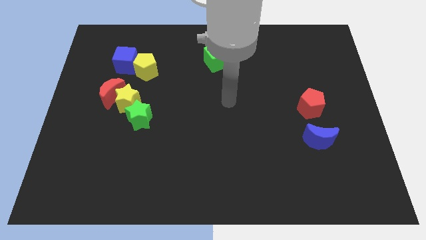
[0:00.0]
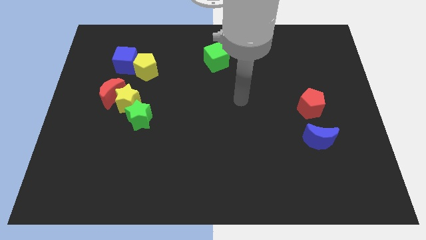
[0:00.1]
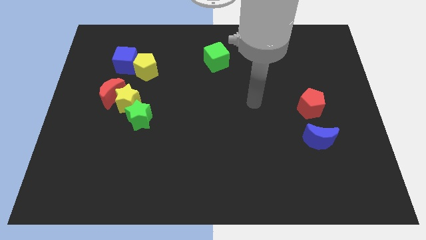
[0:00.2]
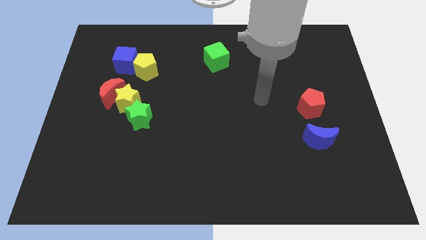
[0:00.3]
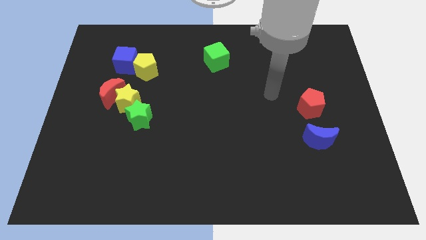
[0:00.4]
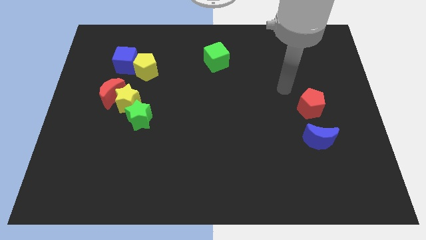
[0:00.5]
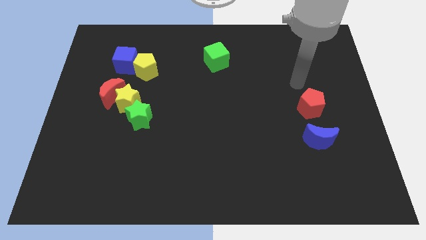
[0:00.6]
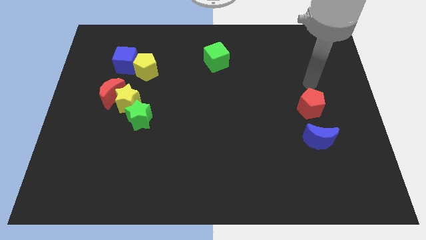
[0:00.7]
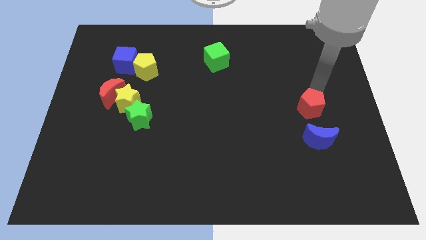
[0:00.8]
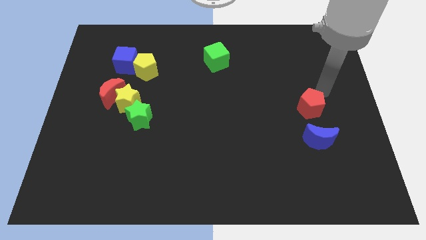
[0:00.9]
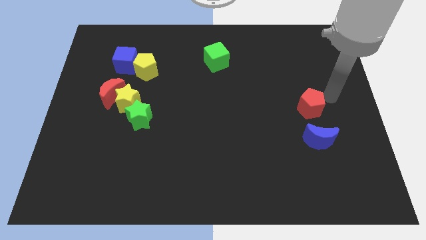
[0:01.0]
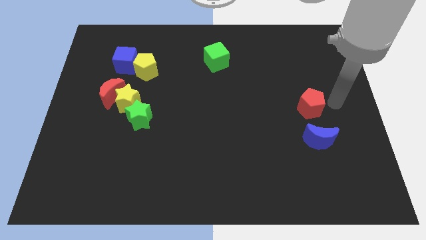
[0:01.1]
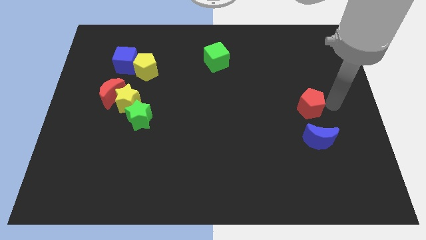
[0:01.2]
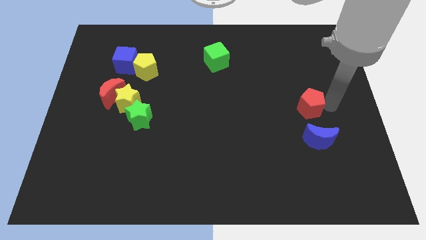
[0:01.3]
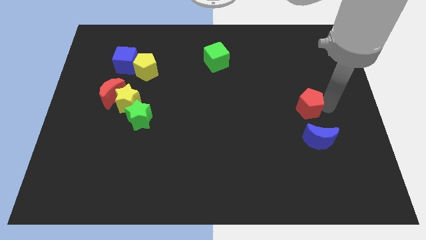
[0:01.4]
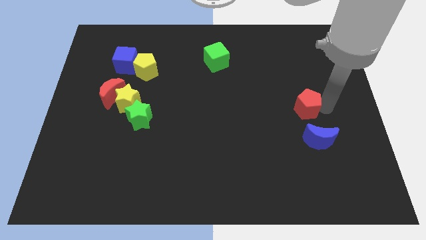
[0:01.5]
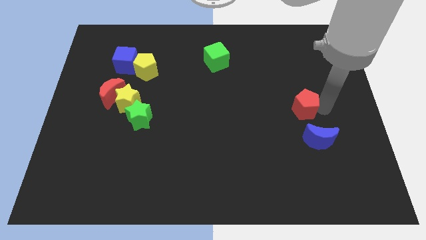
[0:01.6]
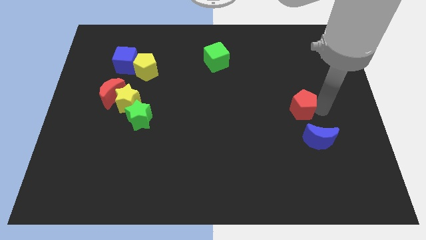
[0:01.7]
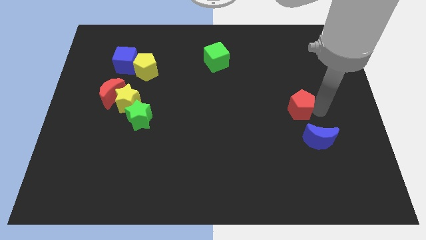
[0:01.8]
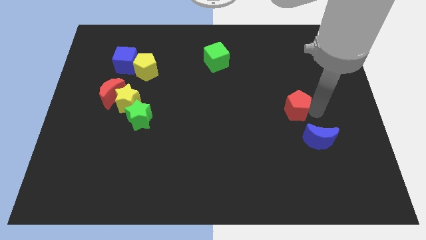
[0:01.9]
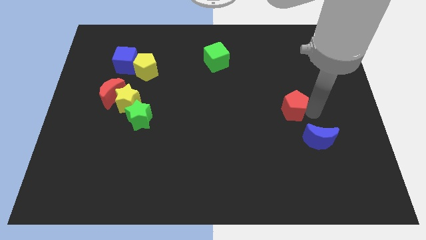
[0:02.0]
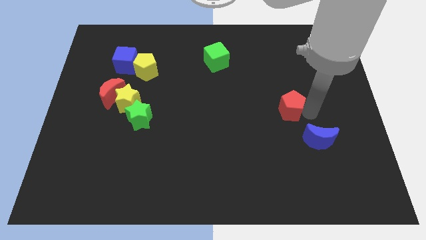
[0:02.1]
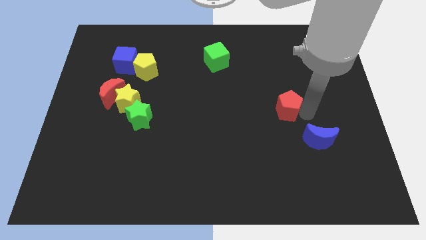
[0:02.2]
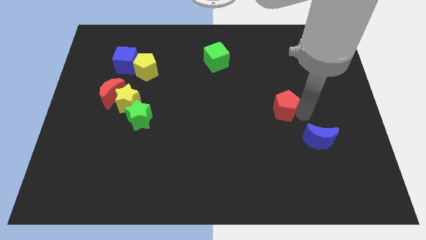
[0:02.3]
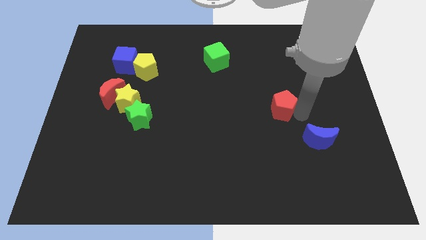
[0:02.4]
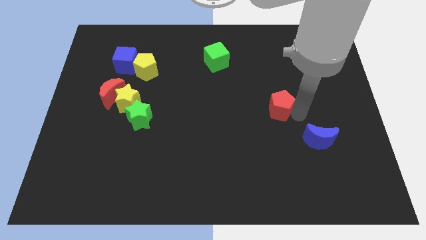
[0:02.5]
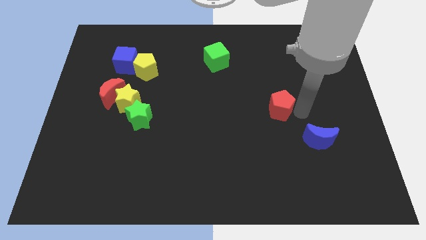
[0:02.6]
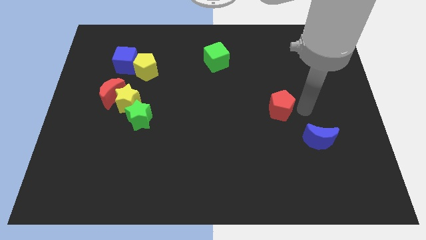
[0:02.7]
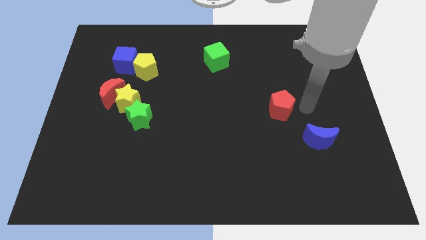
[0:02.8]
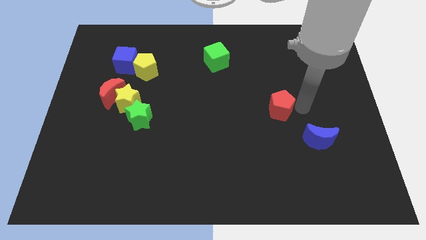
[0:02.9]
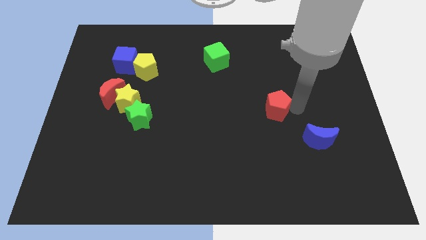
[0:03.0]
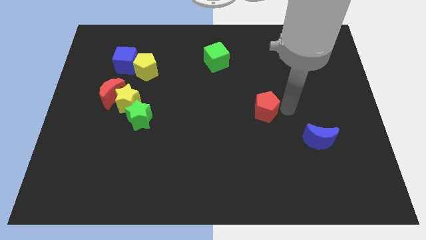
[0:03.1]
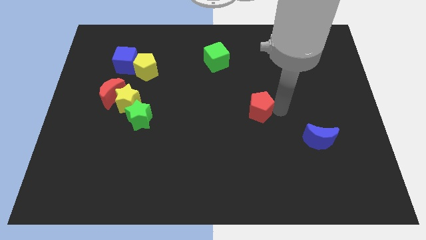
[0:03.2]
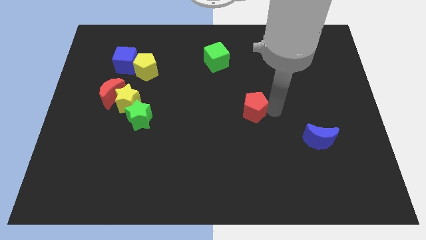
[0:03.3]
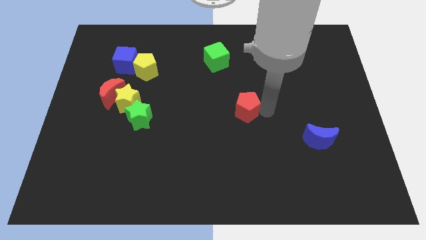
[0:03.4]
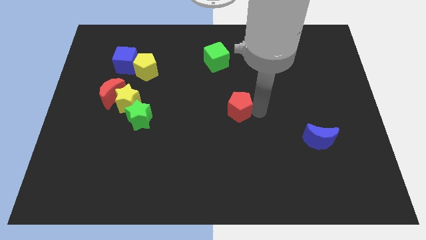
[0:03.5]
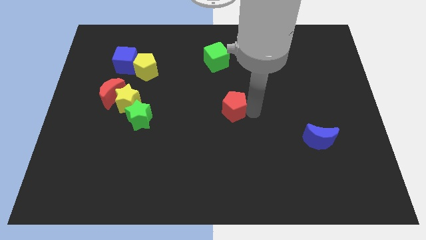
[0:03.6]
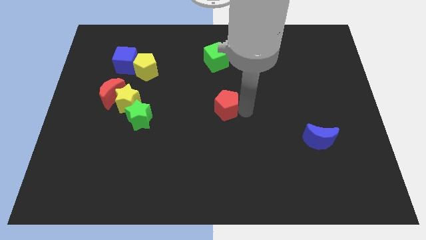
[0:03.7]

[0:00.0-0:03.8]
push the red pentagon left

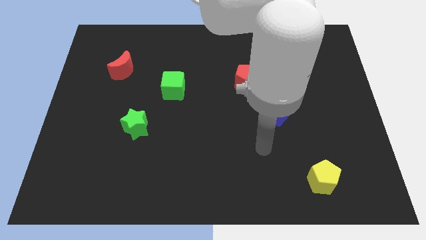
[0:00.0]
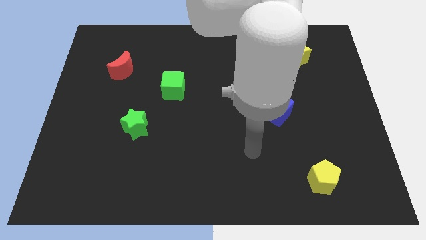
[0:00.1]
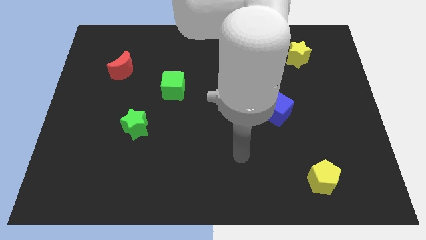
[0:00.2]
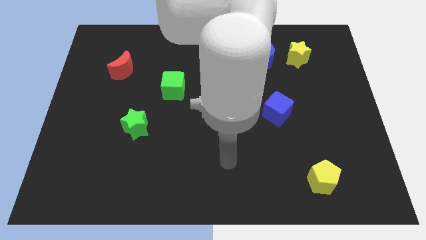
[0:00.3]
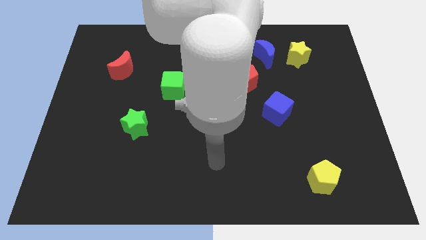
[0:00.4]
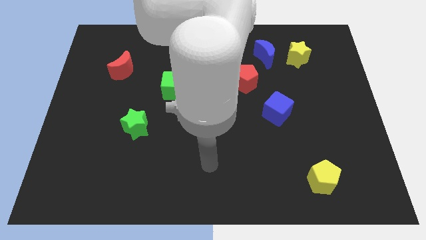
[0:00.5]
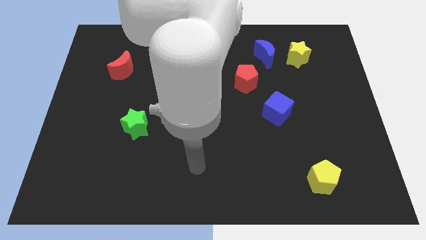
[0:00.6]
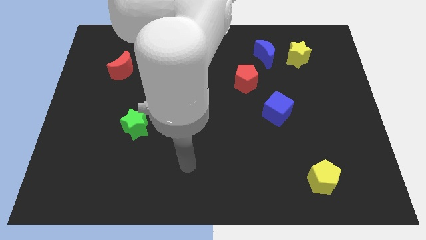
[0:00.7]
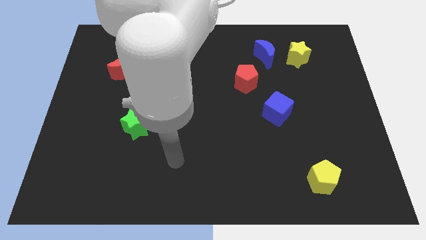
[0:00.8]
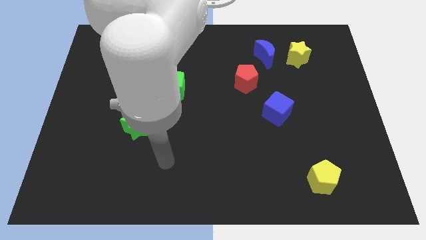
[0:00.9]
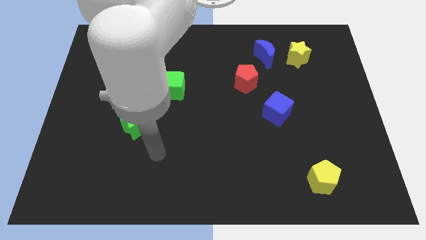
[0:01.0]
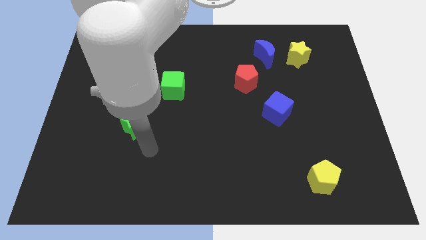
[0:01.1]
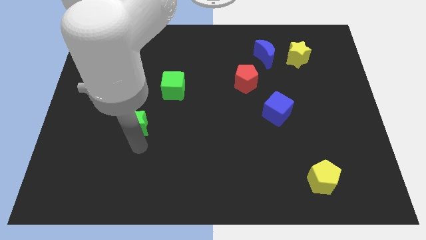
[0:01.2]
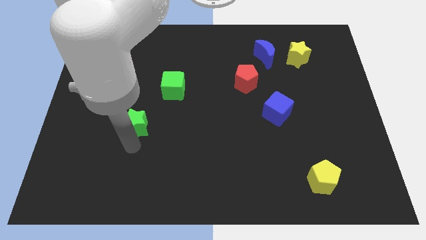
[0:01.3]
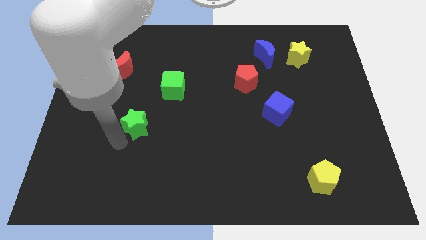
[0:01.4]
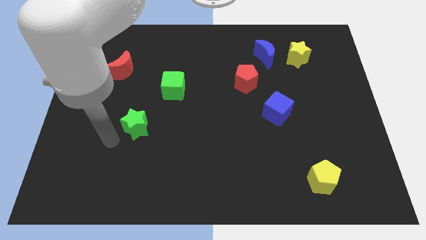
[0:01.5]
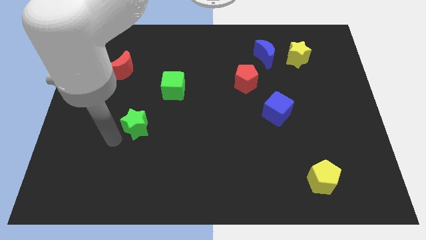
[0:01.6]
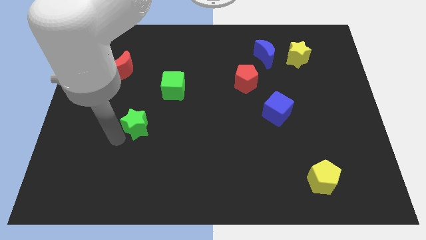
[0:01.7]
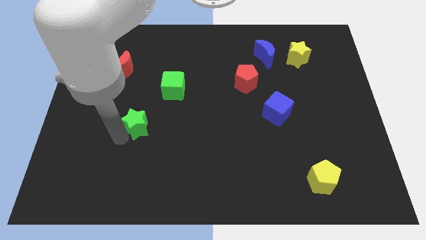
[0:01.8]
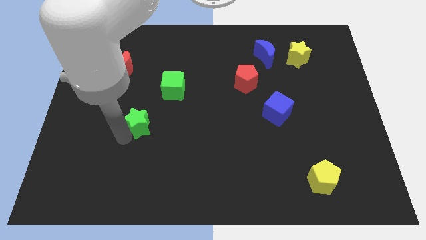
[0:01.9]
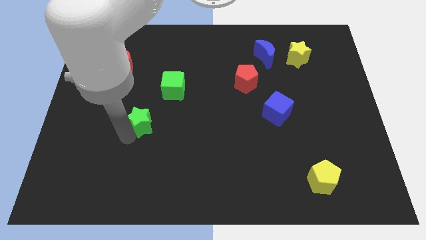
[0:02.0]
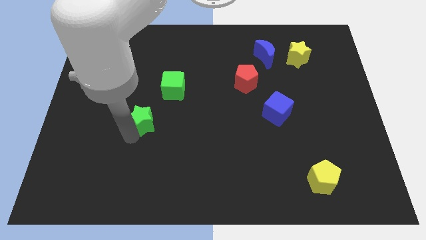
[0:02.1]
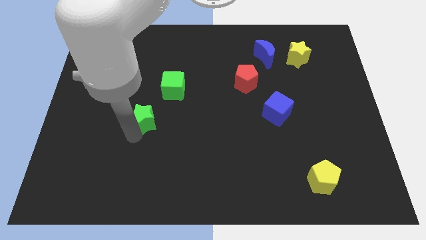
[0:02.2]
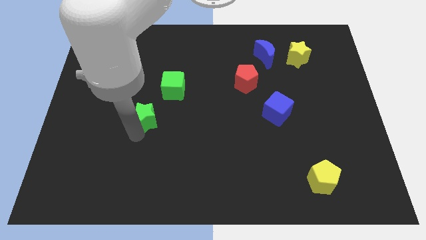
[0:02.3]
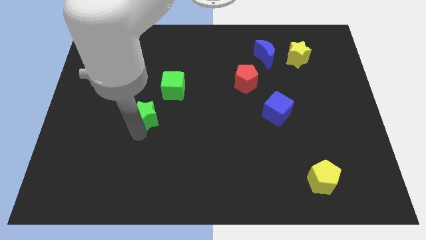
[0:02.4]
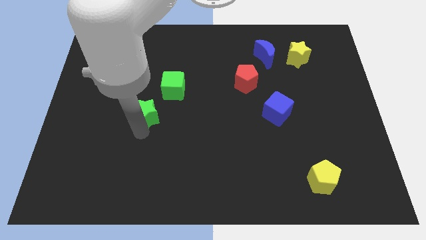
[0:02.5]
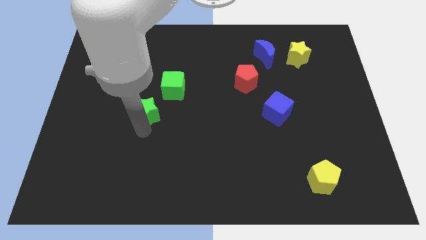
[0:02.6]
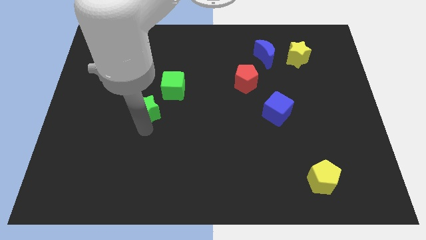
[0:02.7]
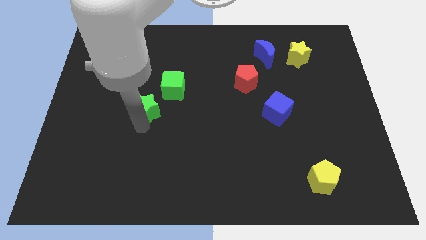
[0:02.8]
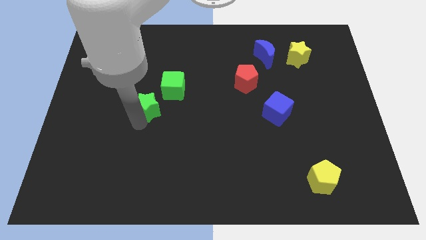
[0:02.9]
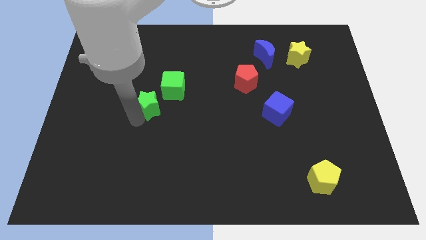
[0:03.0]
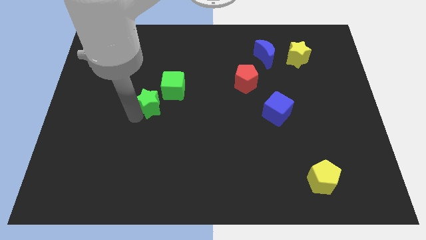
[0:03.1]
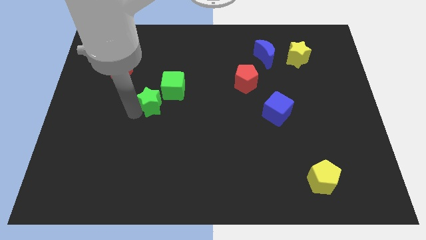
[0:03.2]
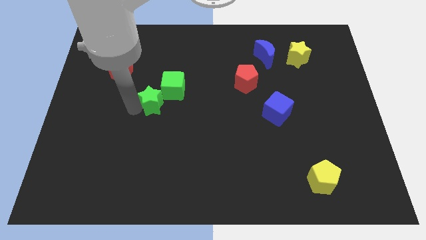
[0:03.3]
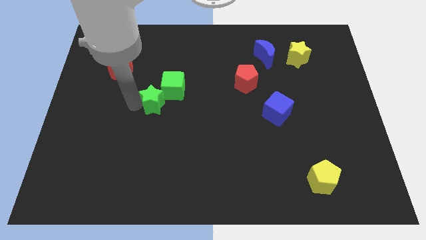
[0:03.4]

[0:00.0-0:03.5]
slightly slide the green star up and to the right diagonally

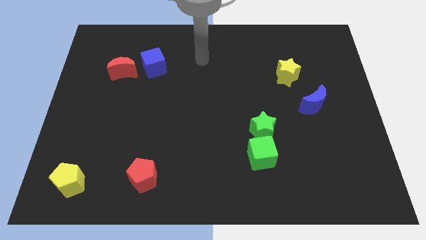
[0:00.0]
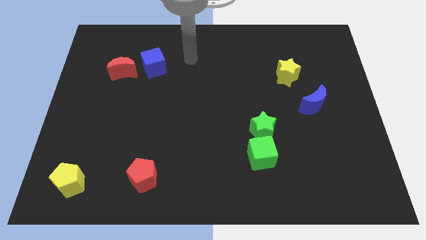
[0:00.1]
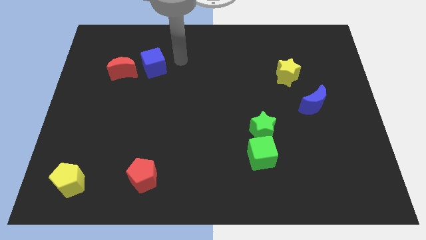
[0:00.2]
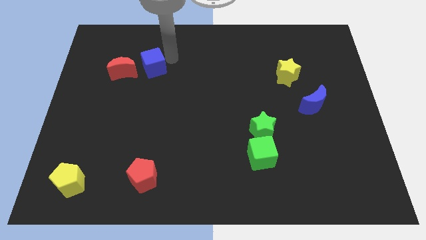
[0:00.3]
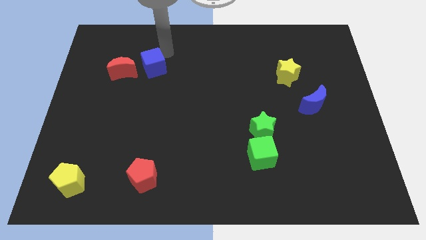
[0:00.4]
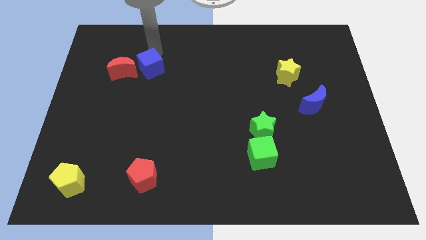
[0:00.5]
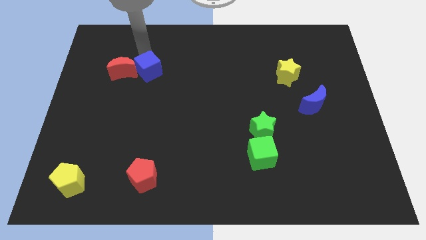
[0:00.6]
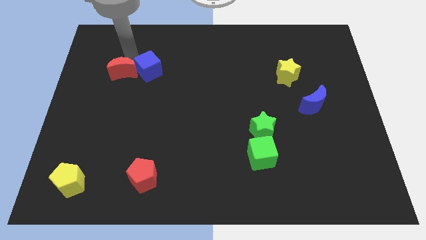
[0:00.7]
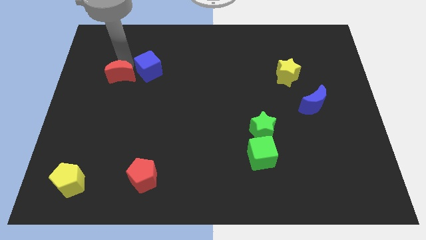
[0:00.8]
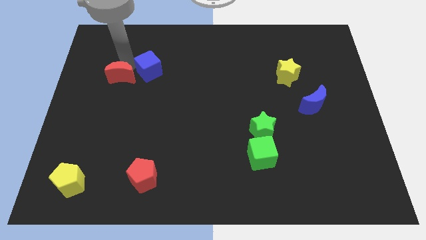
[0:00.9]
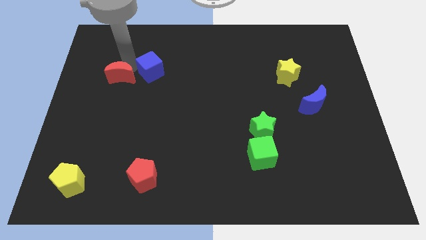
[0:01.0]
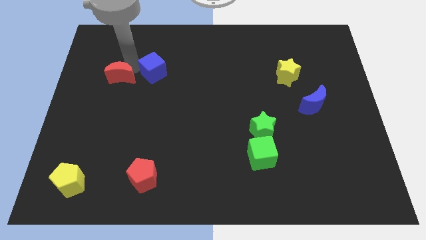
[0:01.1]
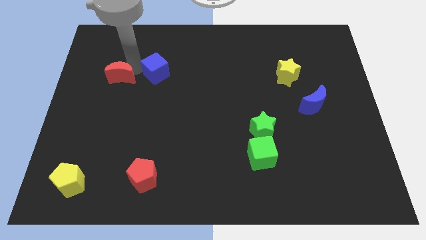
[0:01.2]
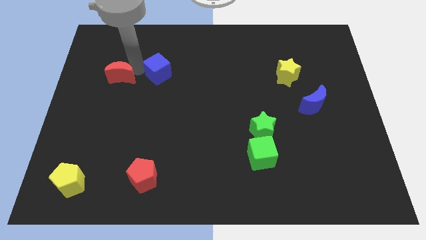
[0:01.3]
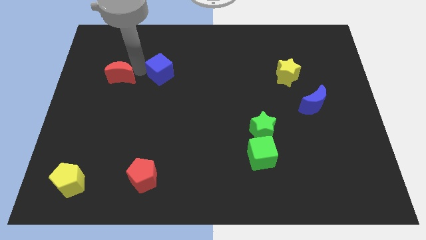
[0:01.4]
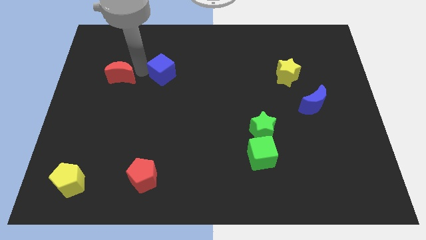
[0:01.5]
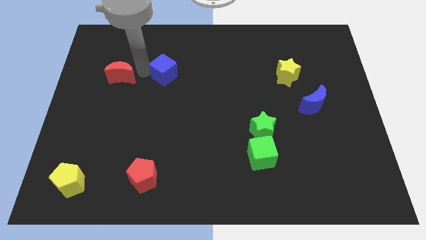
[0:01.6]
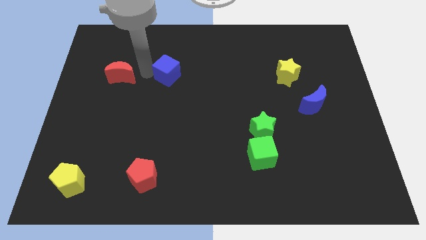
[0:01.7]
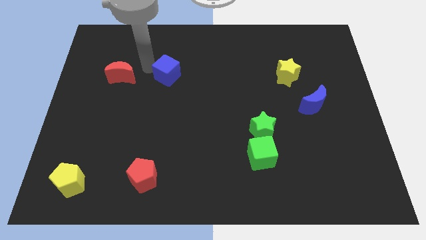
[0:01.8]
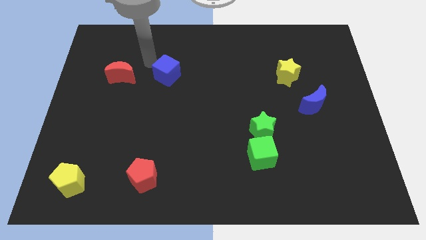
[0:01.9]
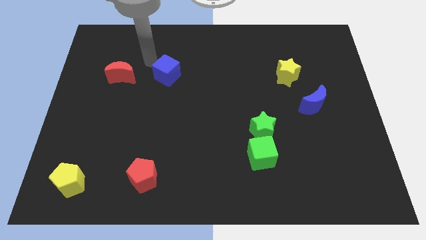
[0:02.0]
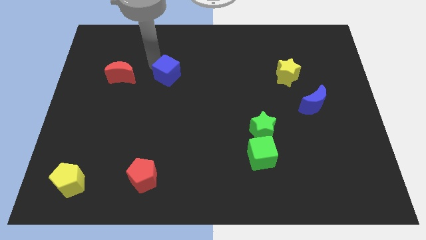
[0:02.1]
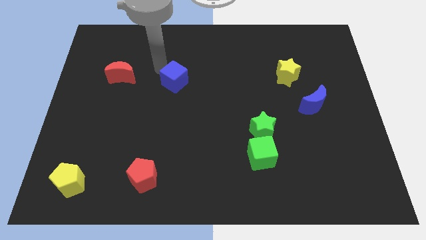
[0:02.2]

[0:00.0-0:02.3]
move the blue cube a bit down and to the right
